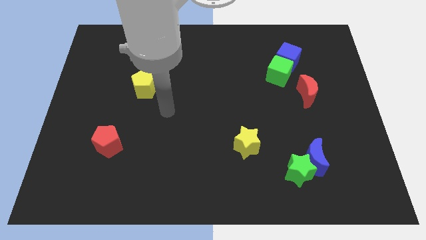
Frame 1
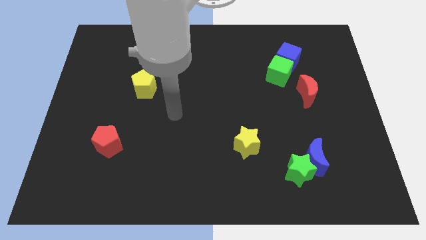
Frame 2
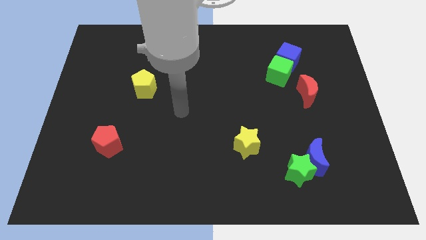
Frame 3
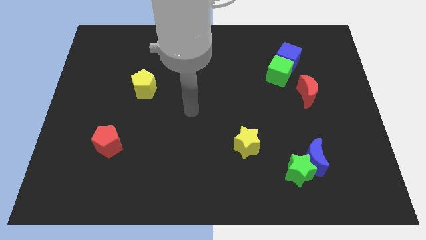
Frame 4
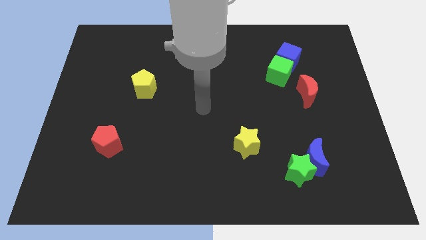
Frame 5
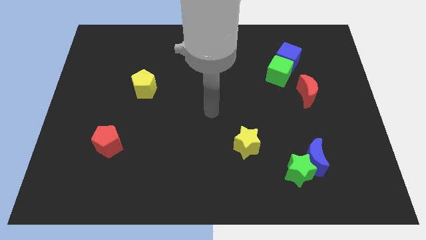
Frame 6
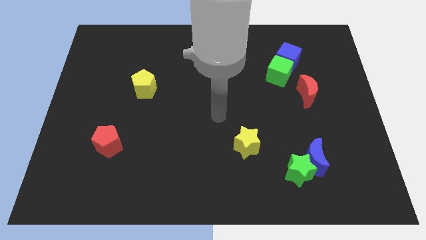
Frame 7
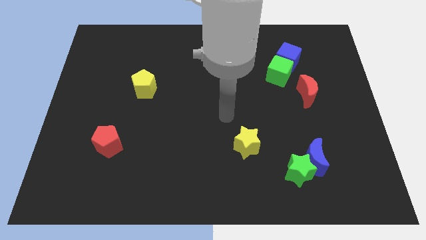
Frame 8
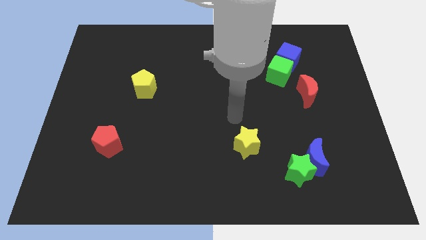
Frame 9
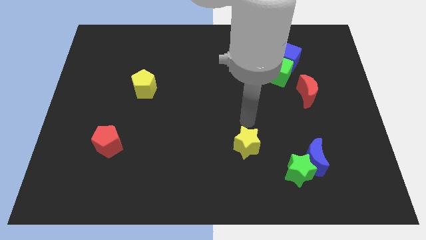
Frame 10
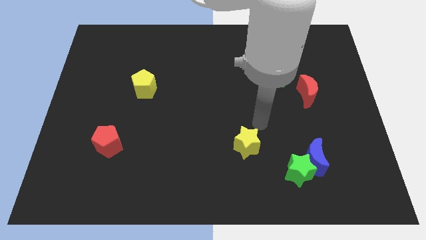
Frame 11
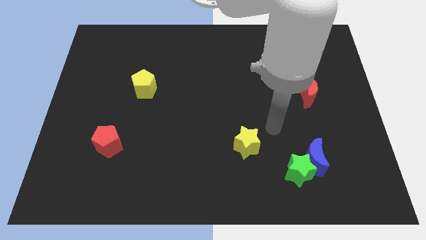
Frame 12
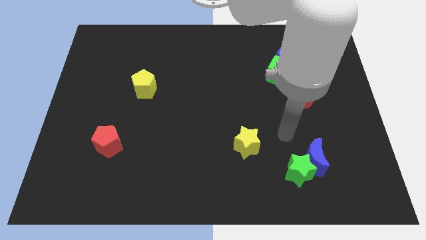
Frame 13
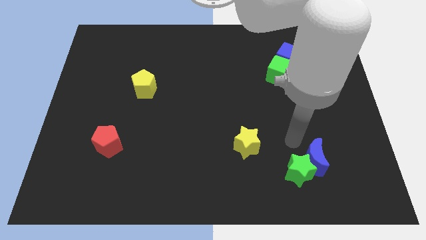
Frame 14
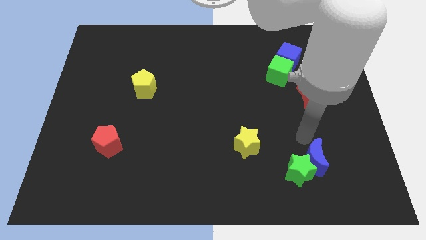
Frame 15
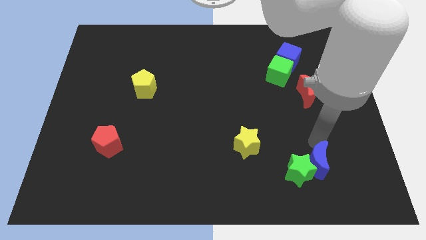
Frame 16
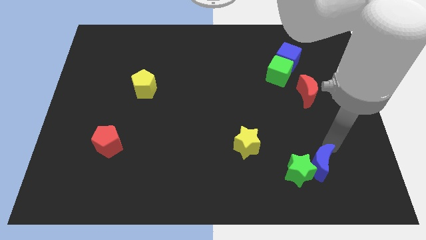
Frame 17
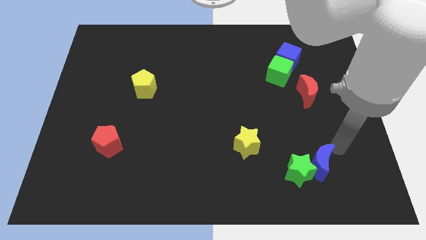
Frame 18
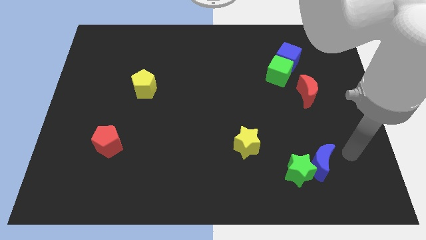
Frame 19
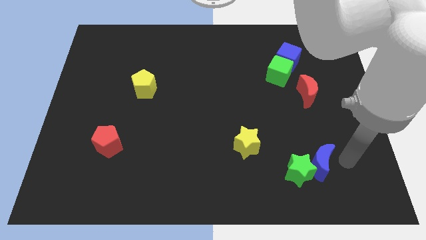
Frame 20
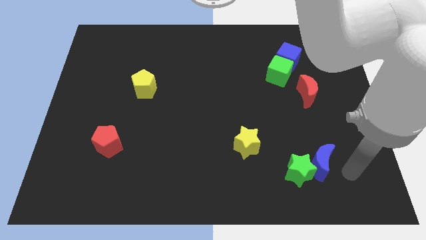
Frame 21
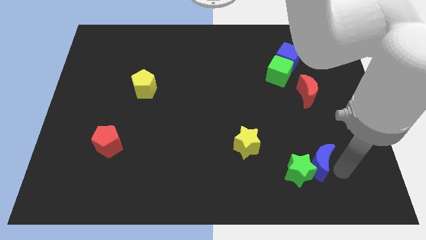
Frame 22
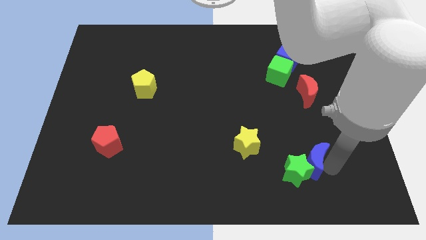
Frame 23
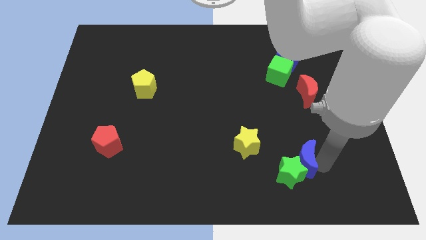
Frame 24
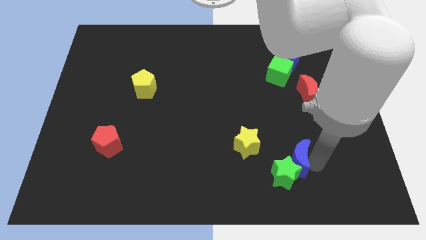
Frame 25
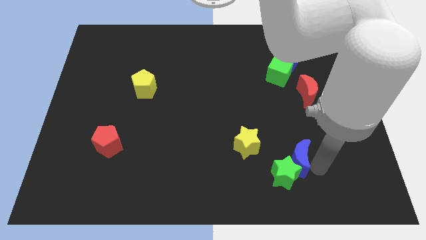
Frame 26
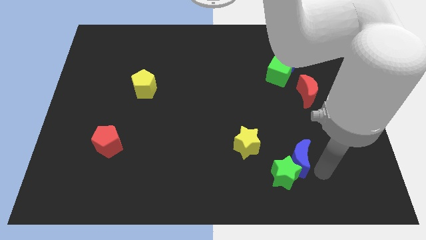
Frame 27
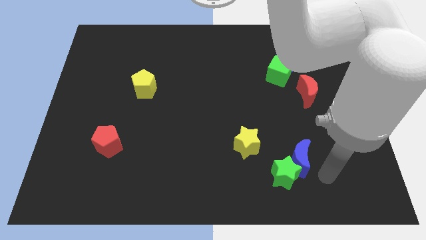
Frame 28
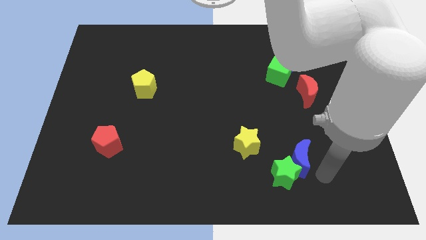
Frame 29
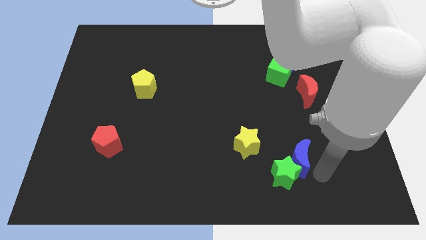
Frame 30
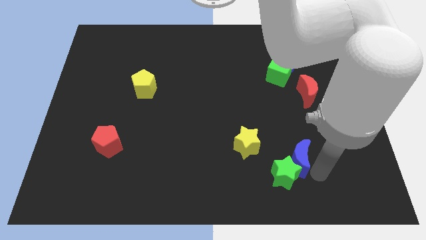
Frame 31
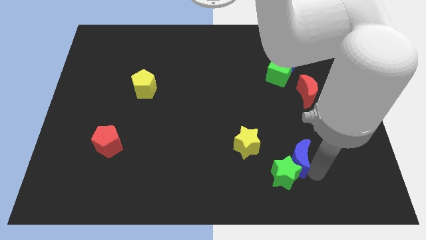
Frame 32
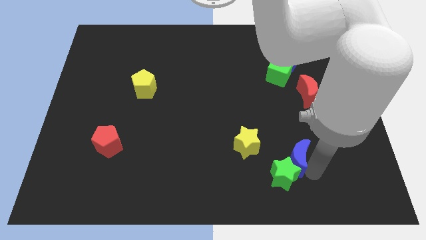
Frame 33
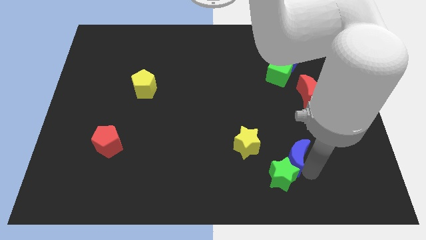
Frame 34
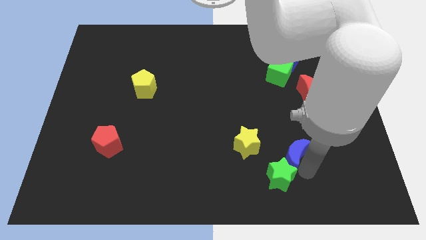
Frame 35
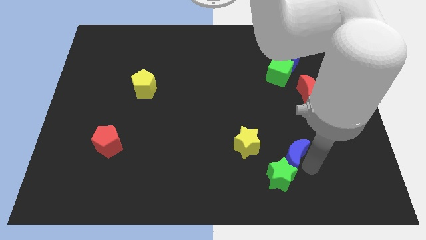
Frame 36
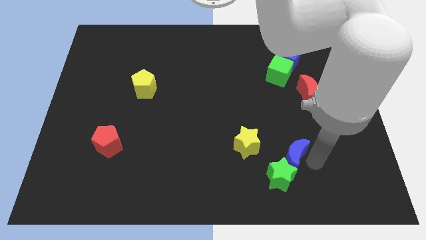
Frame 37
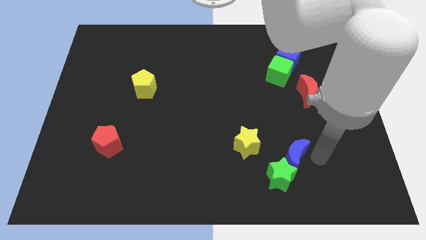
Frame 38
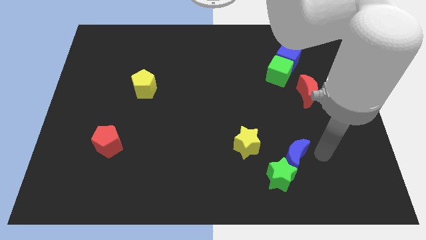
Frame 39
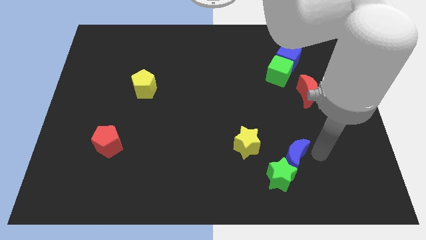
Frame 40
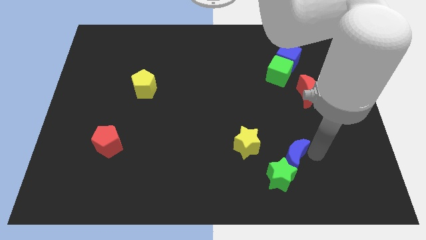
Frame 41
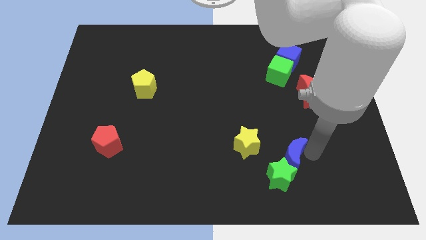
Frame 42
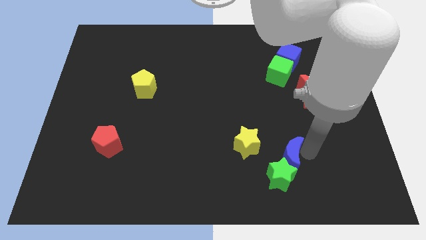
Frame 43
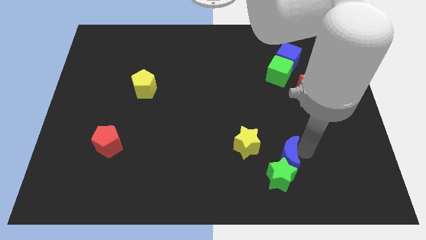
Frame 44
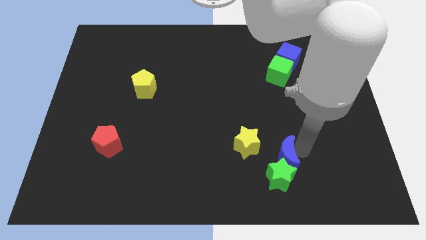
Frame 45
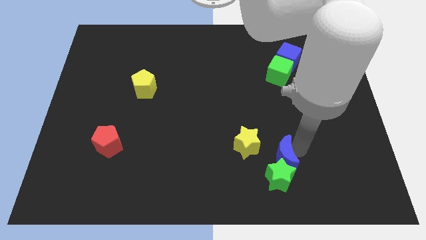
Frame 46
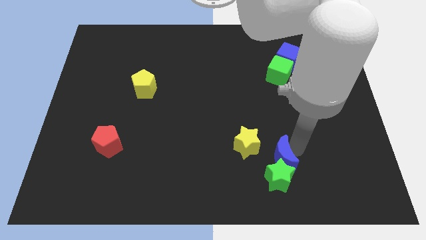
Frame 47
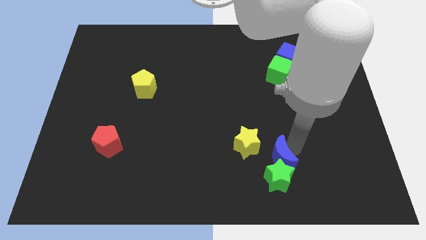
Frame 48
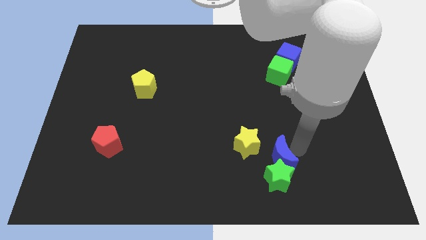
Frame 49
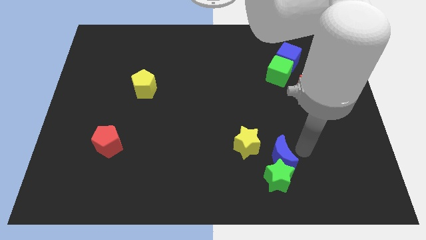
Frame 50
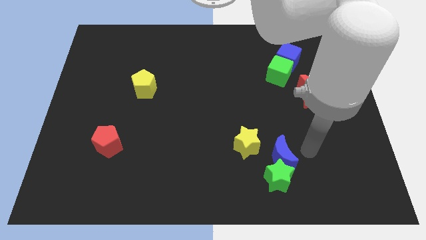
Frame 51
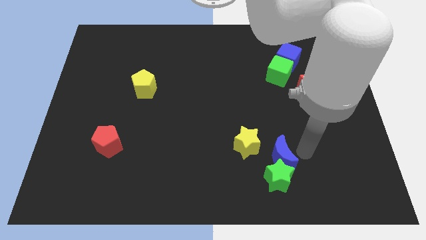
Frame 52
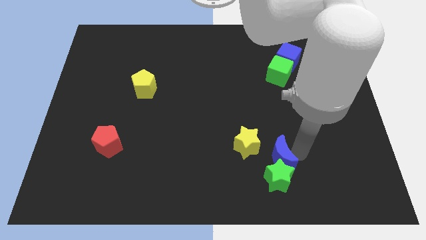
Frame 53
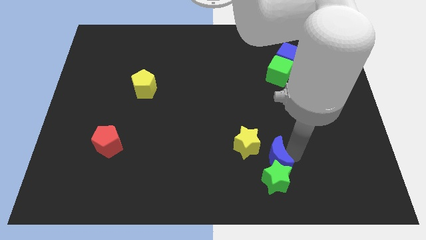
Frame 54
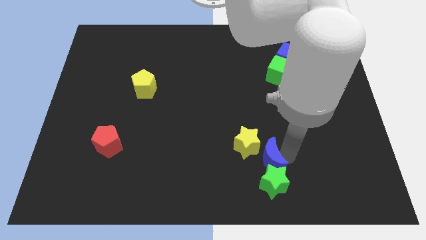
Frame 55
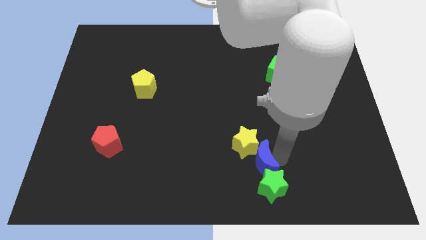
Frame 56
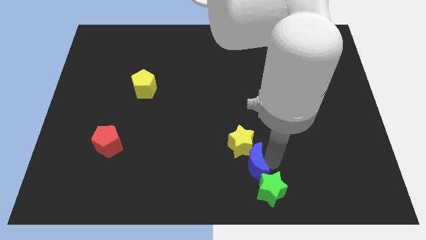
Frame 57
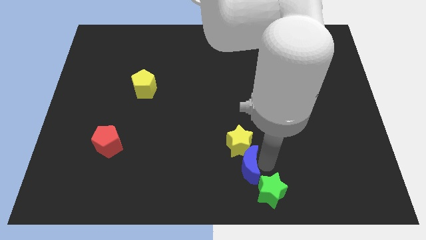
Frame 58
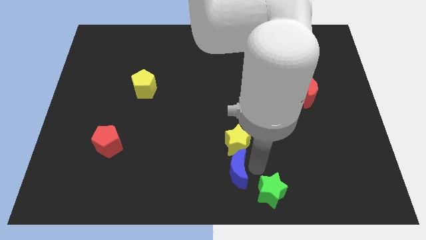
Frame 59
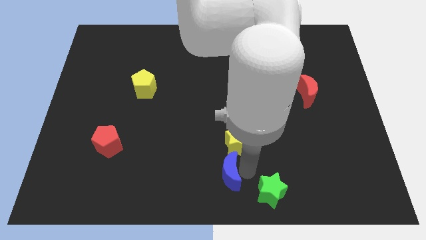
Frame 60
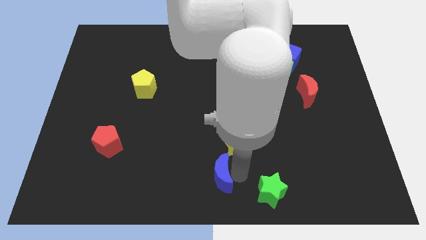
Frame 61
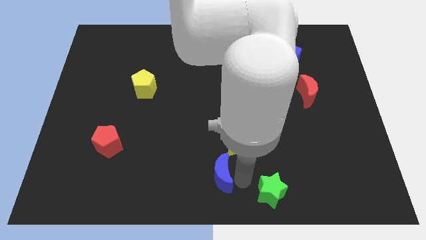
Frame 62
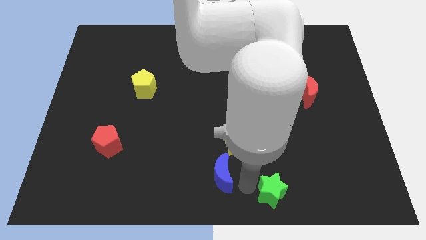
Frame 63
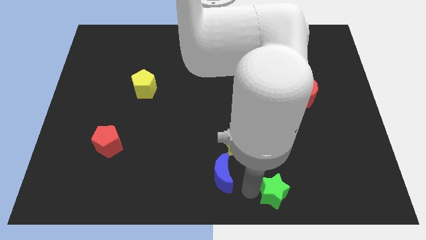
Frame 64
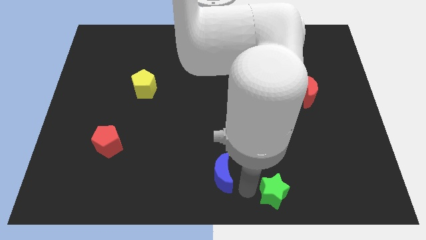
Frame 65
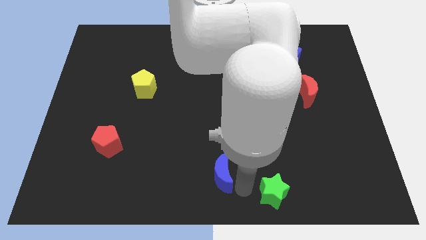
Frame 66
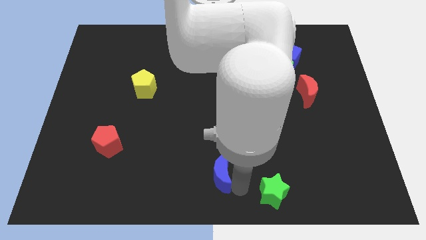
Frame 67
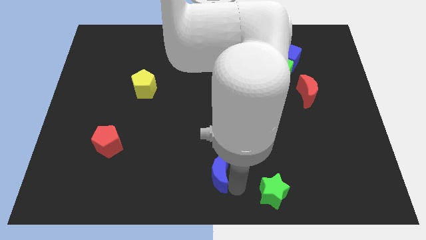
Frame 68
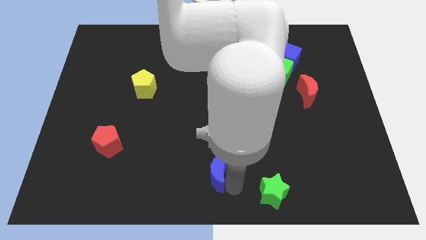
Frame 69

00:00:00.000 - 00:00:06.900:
slide the blue moon left

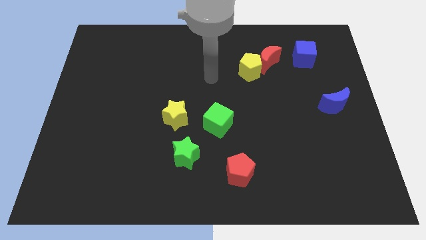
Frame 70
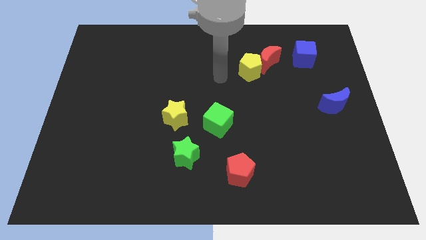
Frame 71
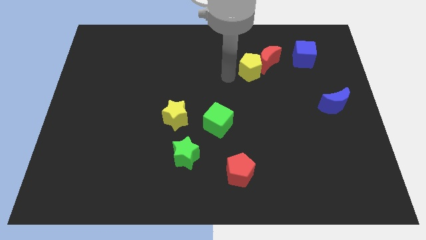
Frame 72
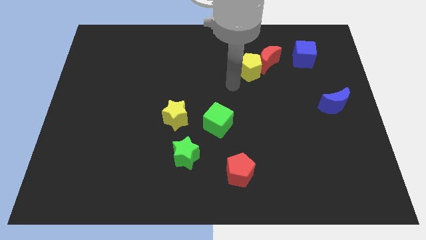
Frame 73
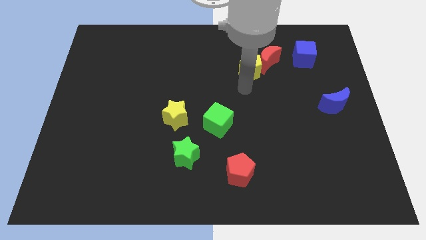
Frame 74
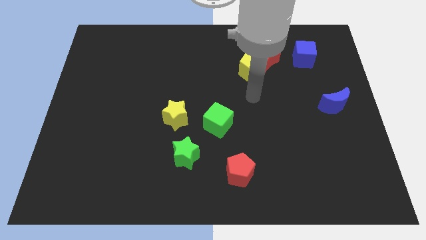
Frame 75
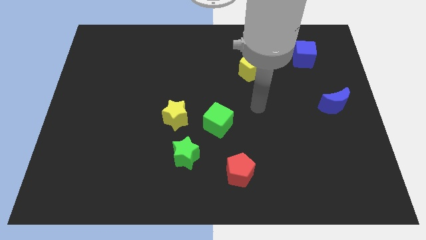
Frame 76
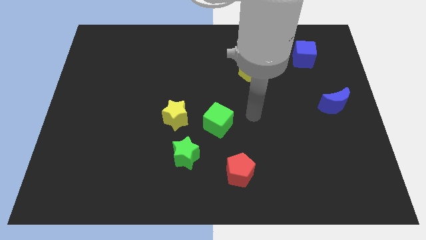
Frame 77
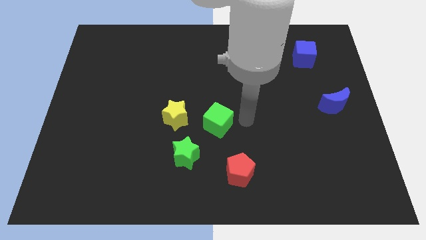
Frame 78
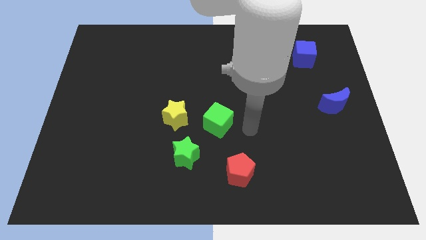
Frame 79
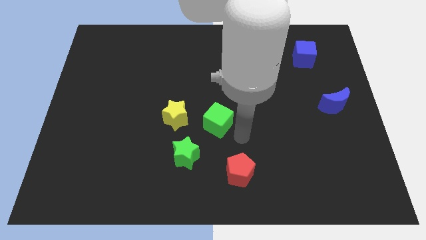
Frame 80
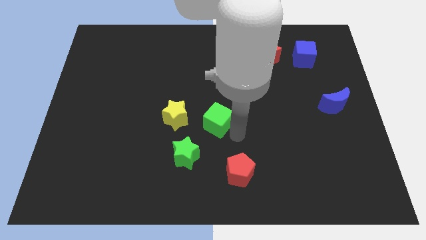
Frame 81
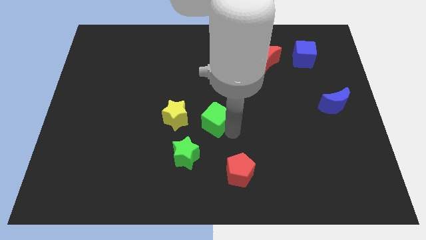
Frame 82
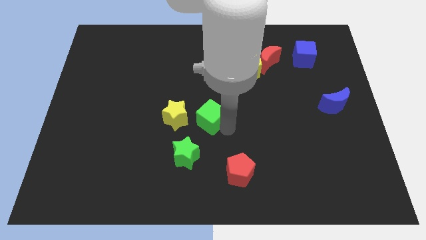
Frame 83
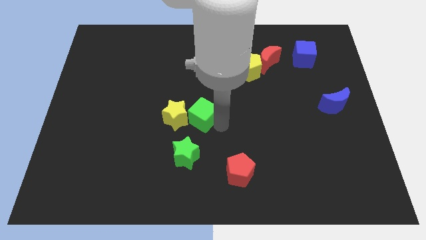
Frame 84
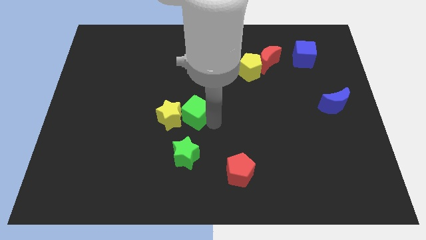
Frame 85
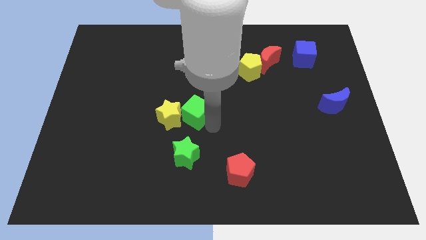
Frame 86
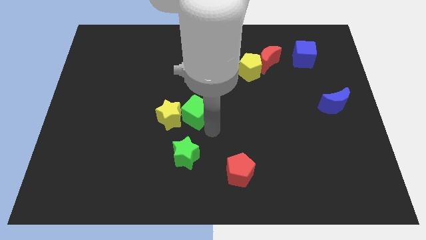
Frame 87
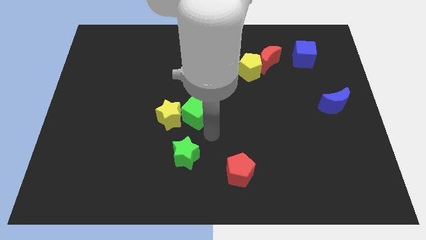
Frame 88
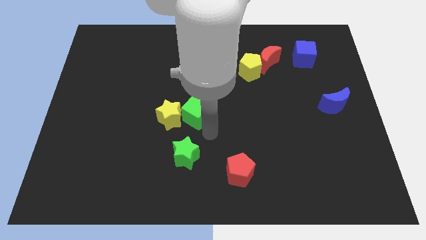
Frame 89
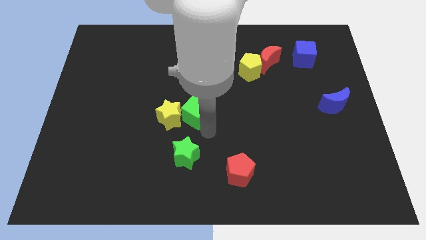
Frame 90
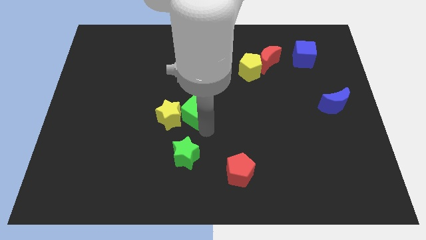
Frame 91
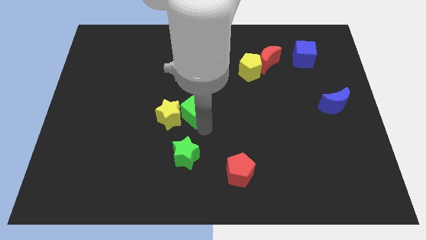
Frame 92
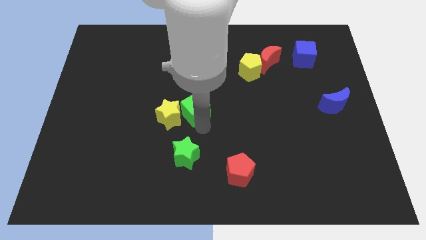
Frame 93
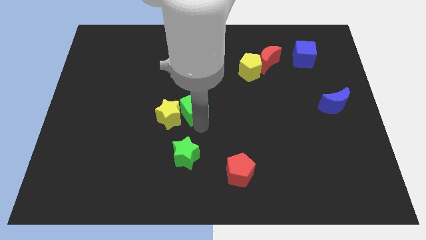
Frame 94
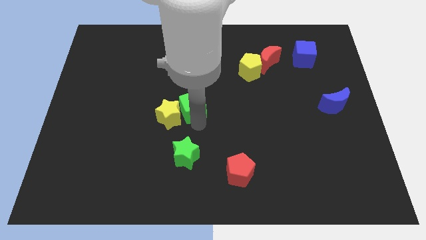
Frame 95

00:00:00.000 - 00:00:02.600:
slide the green cube a little up and to the left diagonally
